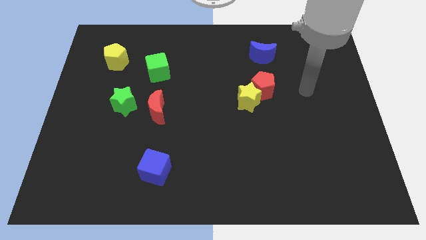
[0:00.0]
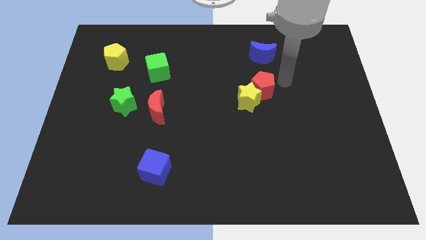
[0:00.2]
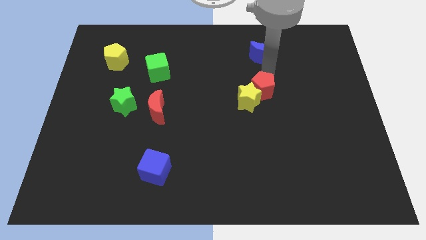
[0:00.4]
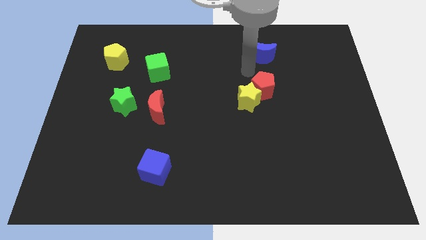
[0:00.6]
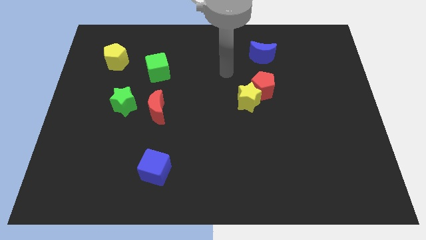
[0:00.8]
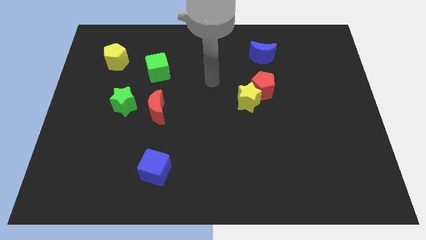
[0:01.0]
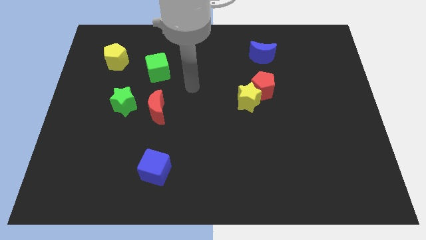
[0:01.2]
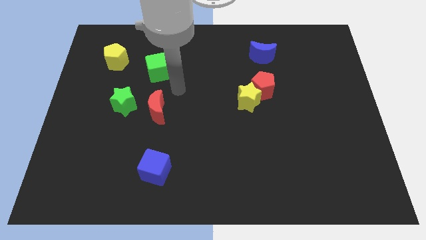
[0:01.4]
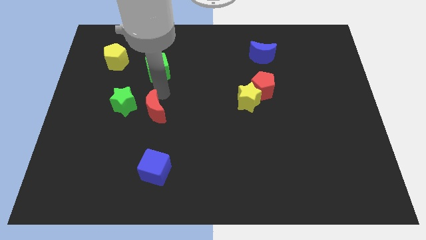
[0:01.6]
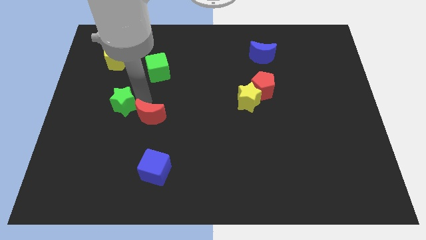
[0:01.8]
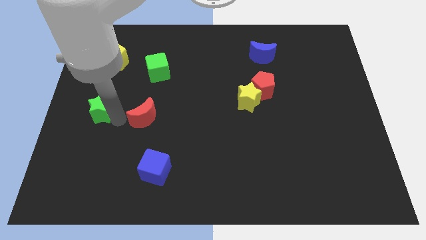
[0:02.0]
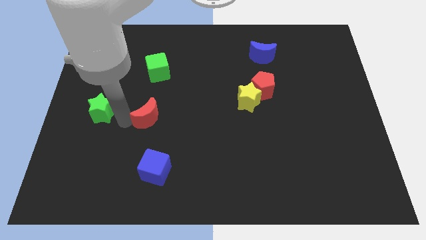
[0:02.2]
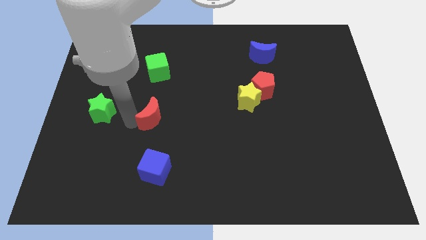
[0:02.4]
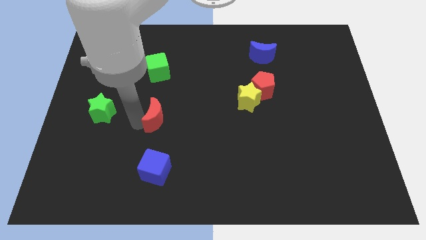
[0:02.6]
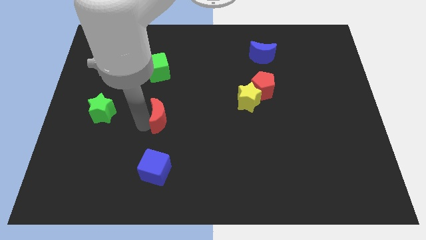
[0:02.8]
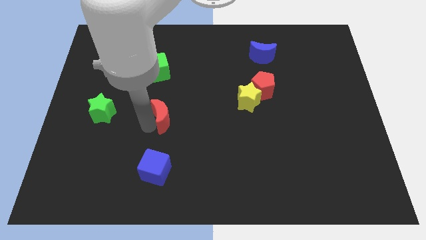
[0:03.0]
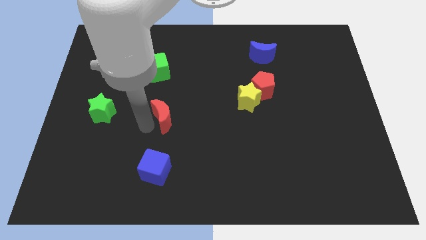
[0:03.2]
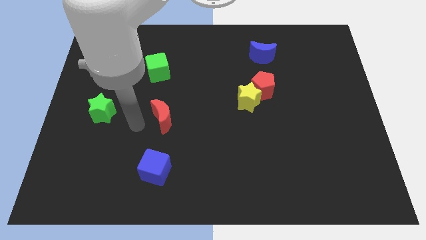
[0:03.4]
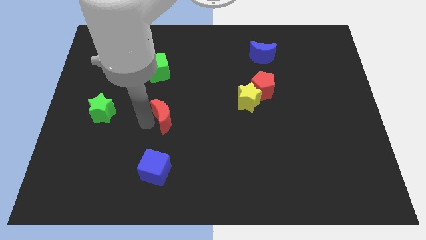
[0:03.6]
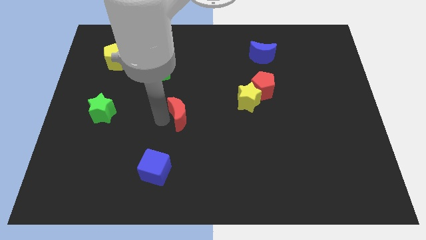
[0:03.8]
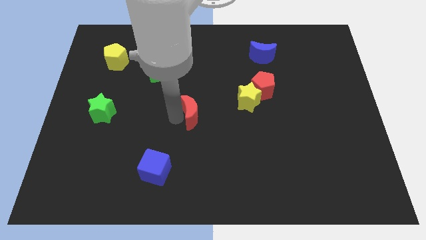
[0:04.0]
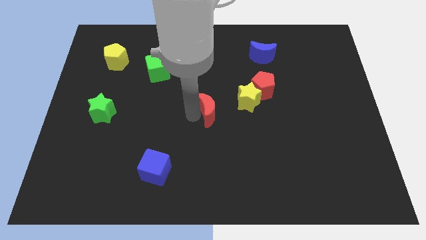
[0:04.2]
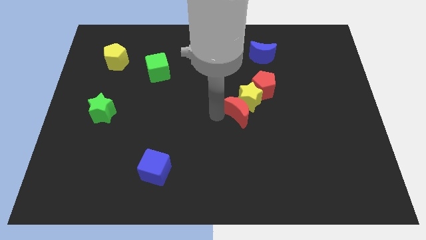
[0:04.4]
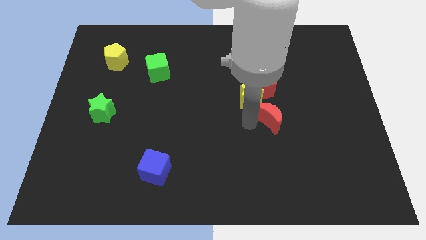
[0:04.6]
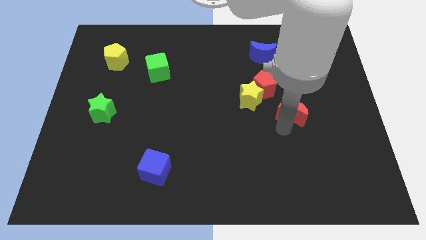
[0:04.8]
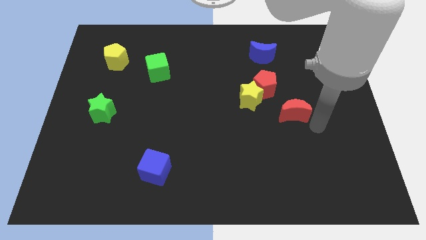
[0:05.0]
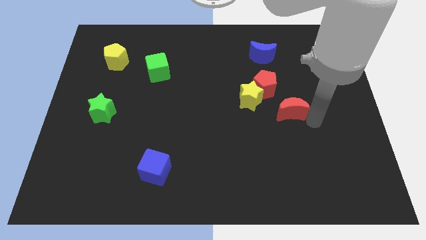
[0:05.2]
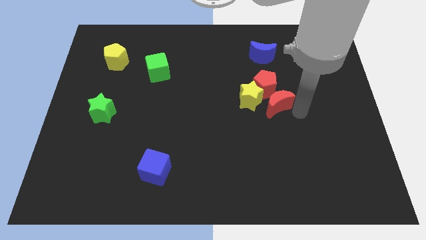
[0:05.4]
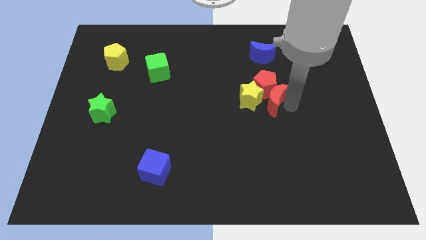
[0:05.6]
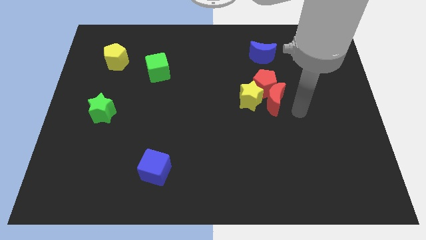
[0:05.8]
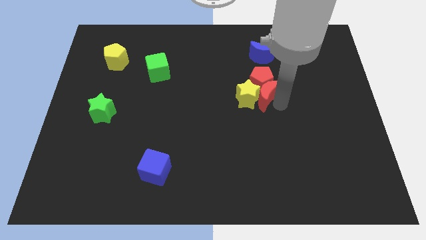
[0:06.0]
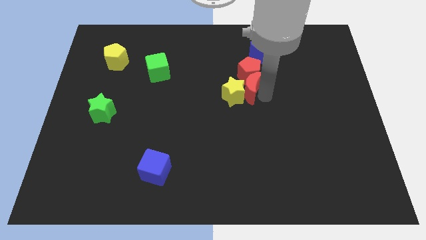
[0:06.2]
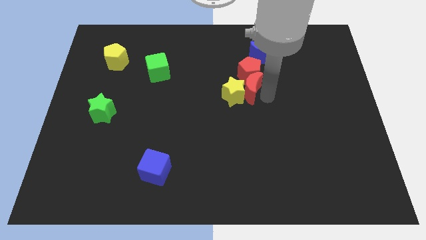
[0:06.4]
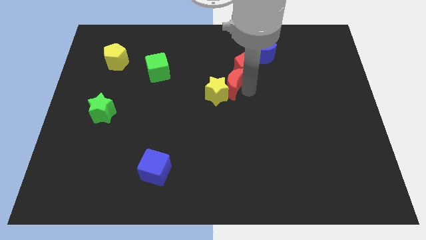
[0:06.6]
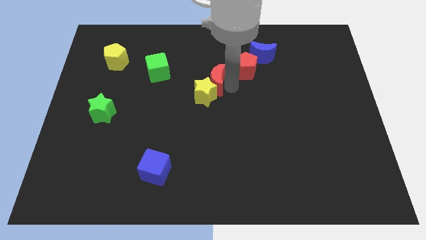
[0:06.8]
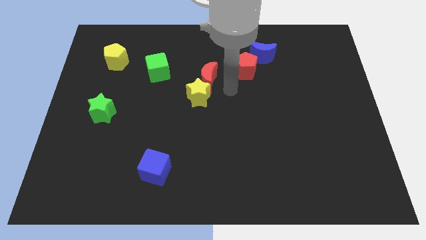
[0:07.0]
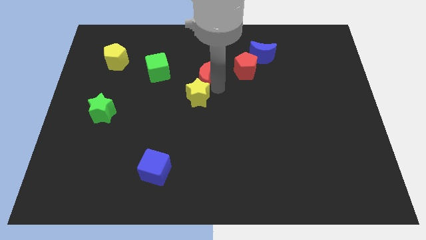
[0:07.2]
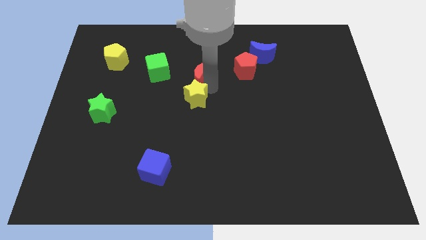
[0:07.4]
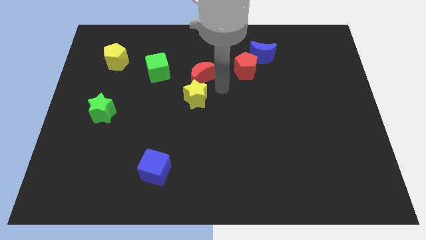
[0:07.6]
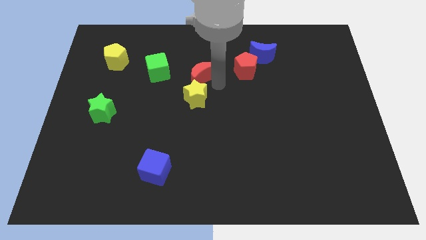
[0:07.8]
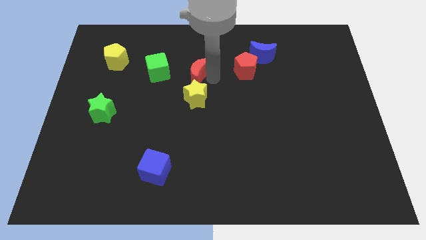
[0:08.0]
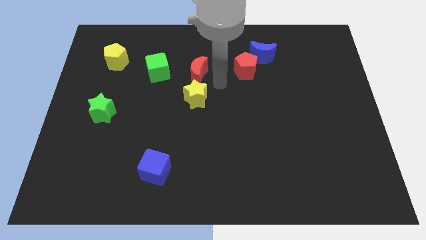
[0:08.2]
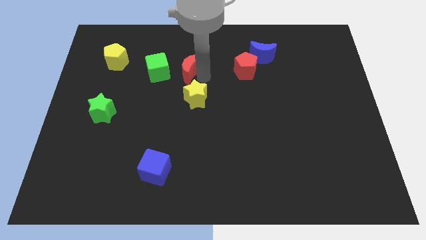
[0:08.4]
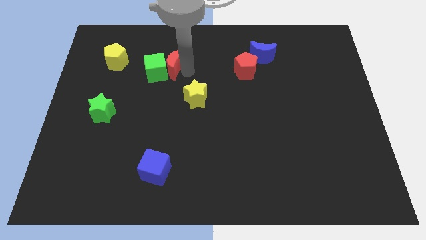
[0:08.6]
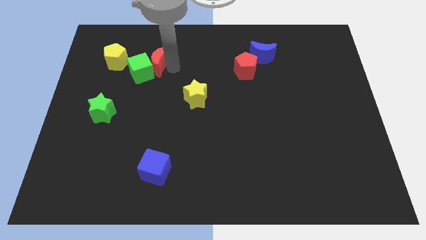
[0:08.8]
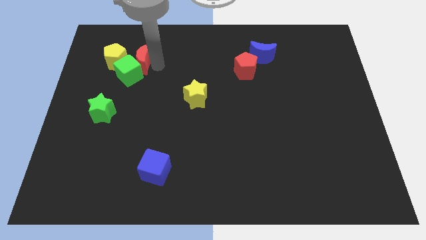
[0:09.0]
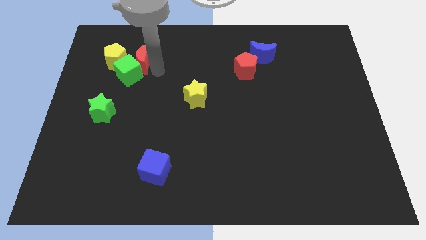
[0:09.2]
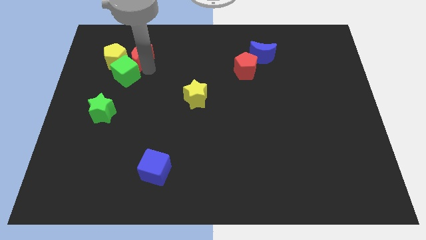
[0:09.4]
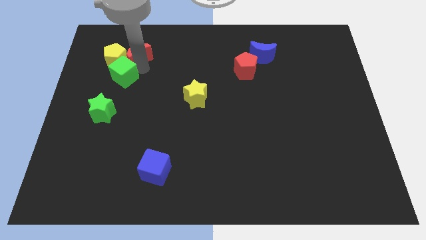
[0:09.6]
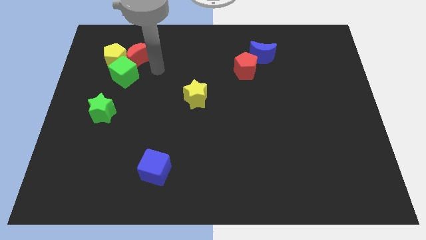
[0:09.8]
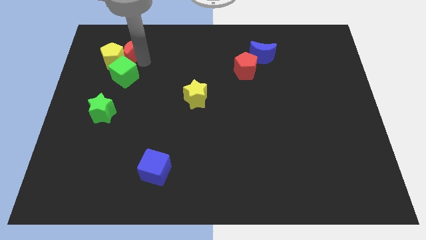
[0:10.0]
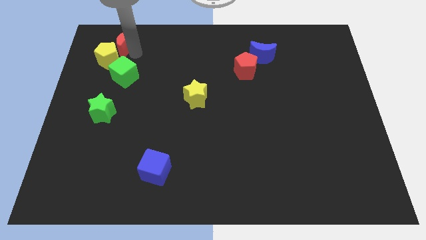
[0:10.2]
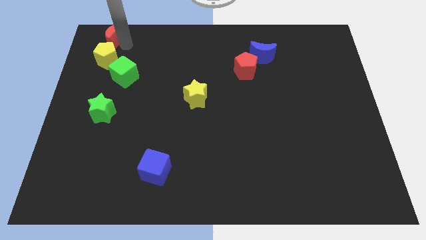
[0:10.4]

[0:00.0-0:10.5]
put the red moon to the upper left corner

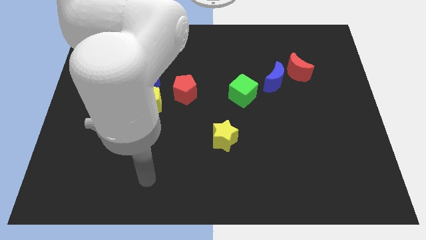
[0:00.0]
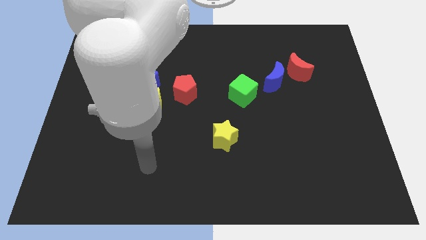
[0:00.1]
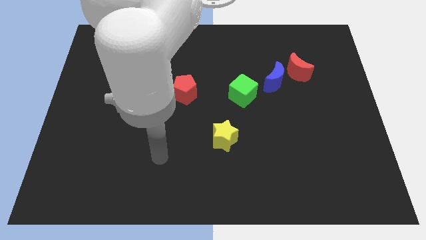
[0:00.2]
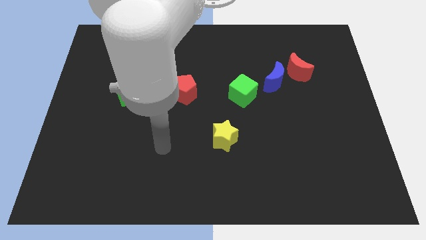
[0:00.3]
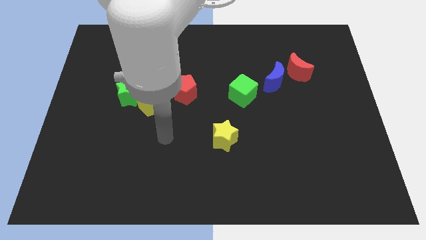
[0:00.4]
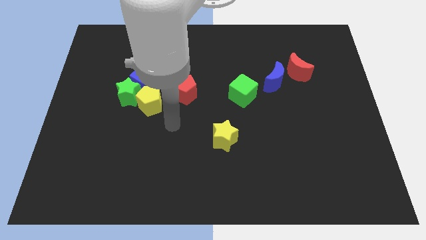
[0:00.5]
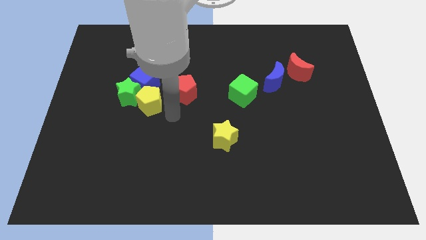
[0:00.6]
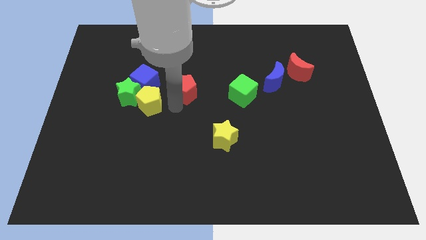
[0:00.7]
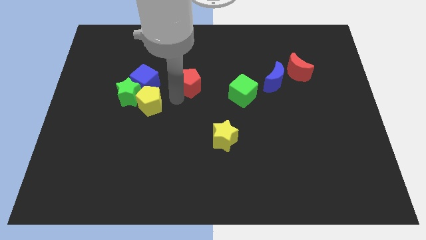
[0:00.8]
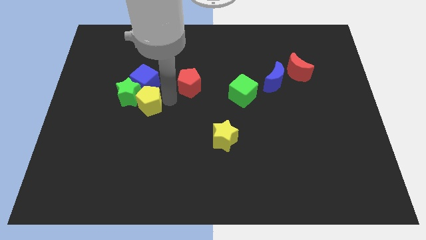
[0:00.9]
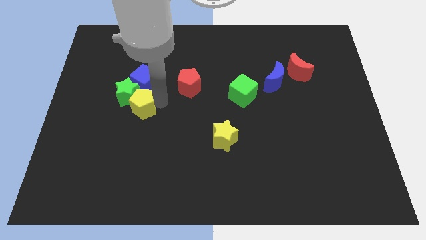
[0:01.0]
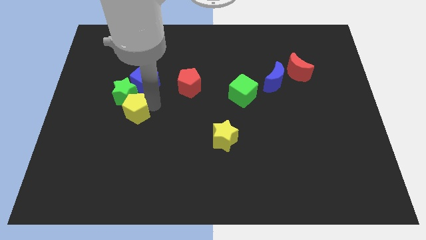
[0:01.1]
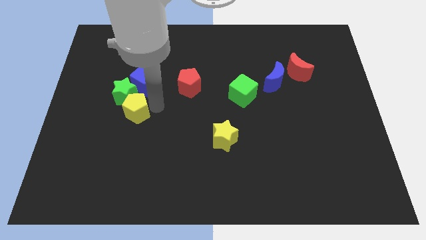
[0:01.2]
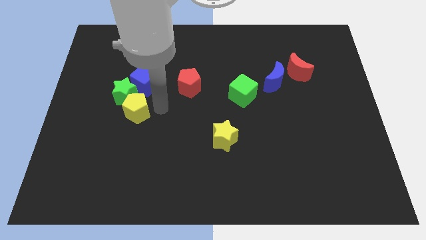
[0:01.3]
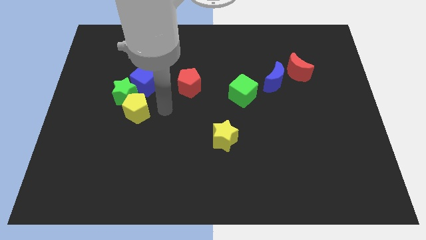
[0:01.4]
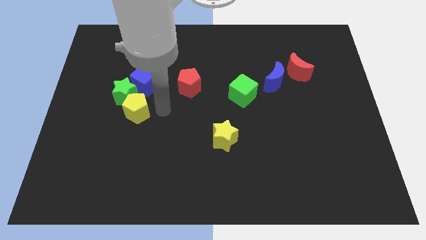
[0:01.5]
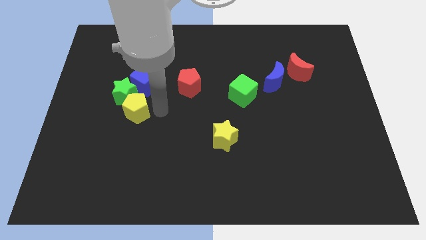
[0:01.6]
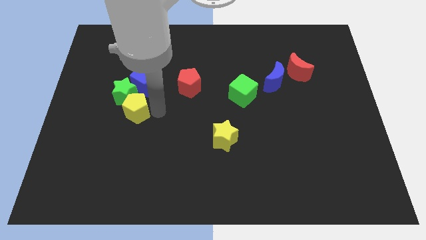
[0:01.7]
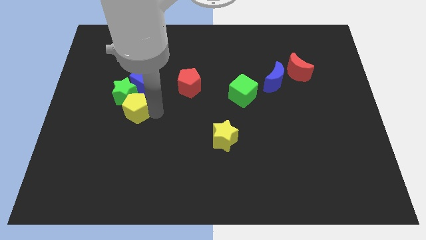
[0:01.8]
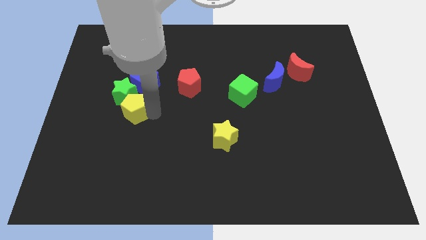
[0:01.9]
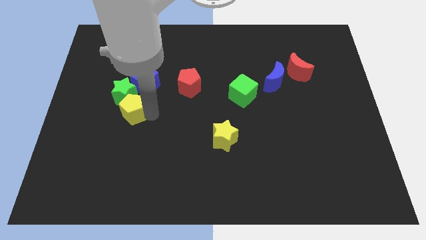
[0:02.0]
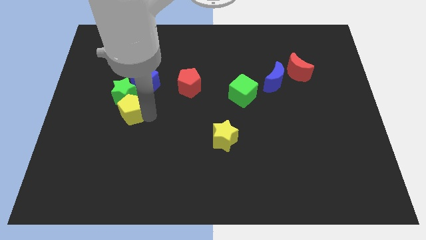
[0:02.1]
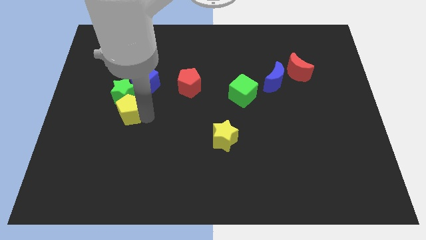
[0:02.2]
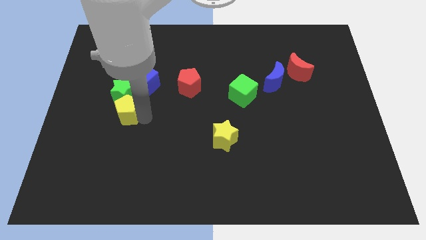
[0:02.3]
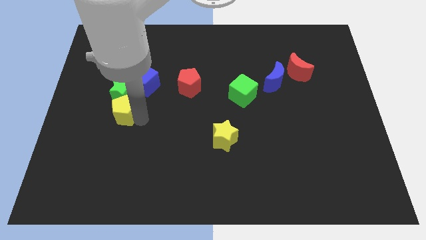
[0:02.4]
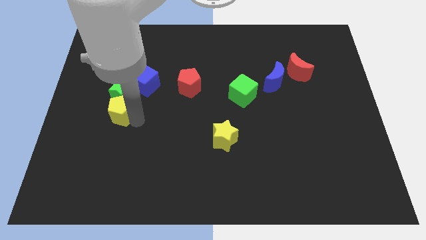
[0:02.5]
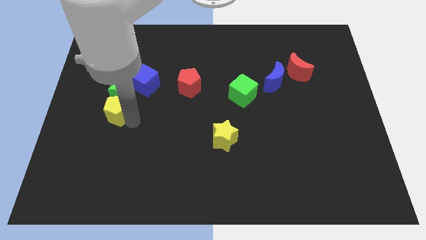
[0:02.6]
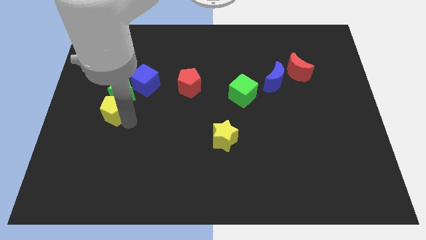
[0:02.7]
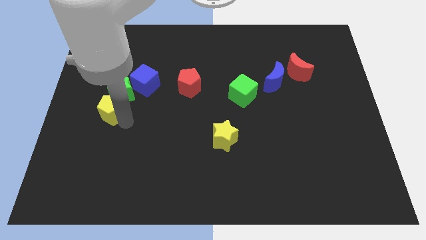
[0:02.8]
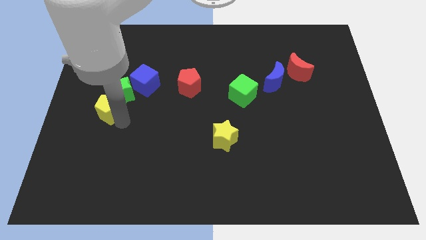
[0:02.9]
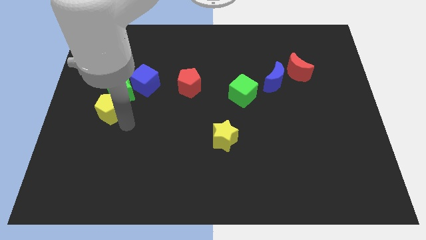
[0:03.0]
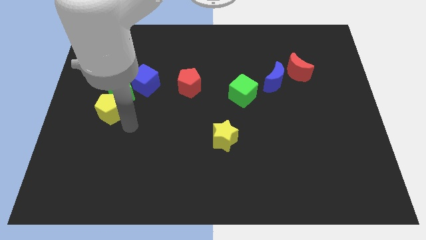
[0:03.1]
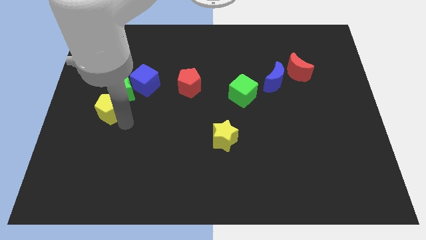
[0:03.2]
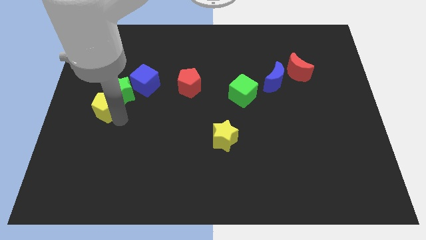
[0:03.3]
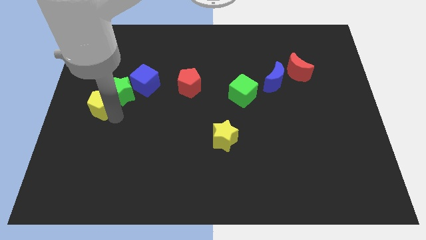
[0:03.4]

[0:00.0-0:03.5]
move the yellow pentagon to the left side
